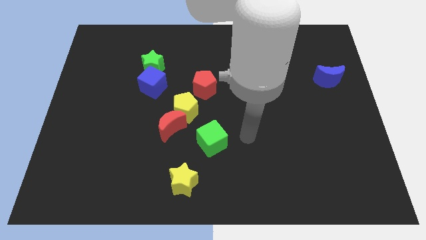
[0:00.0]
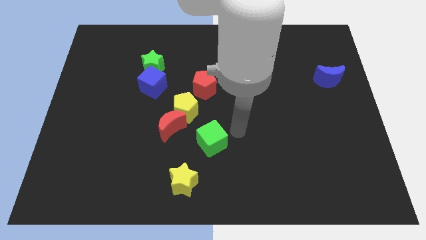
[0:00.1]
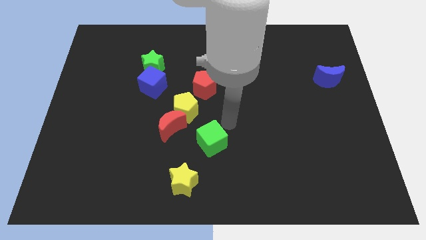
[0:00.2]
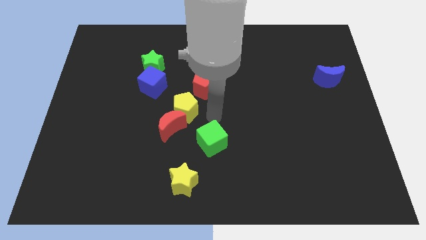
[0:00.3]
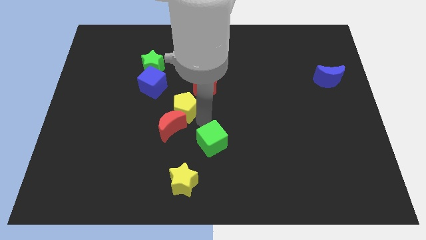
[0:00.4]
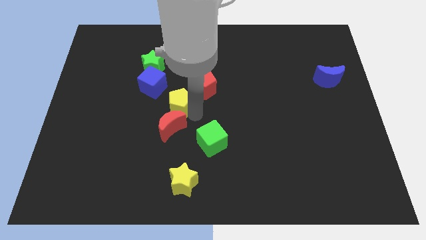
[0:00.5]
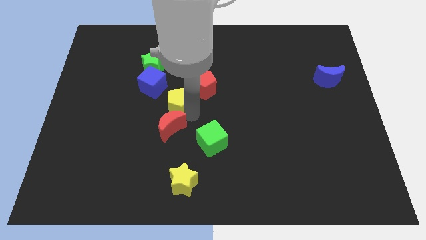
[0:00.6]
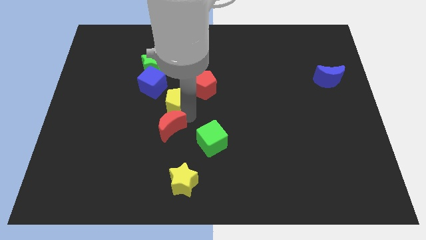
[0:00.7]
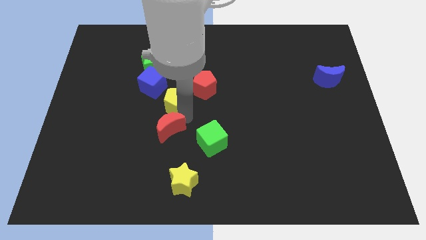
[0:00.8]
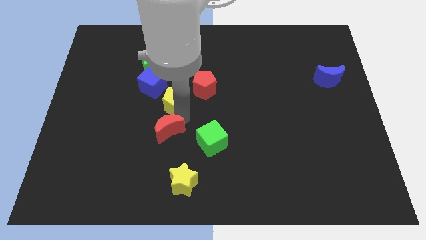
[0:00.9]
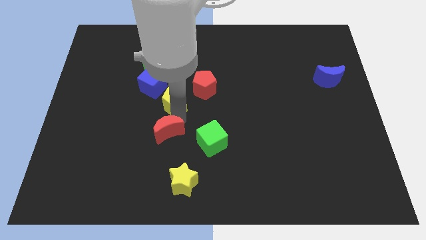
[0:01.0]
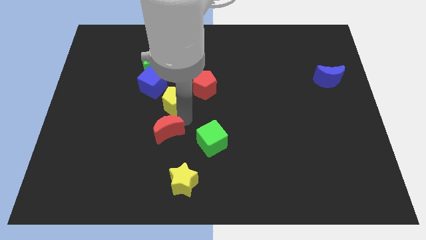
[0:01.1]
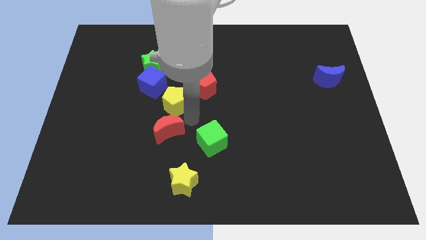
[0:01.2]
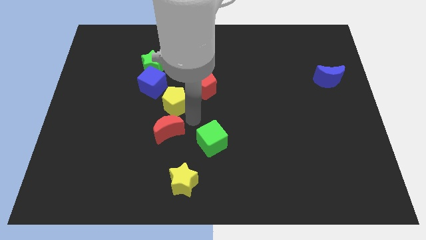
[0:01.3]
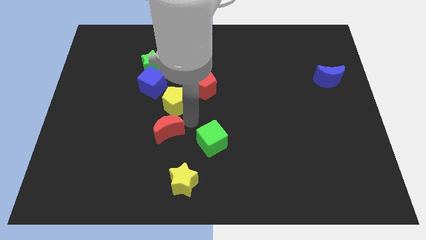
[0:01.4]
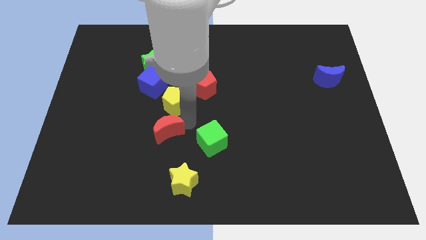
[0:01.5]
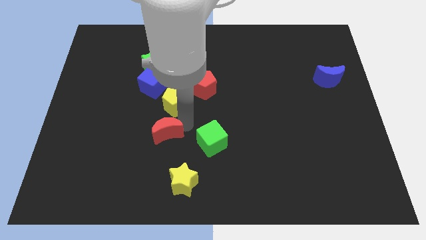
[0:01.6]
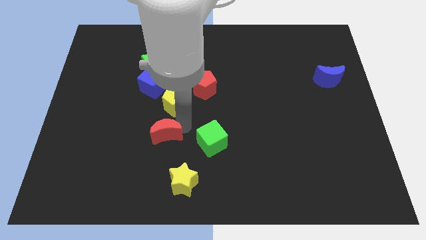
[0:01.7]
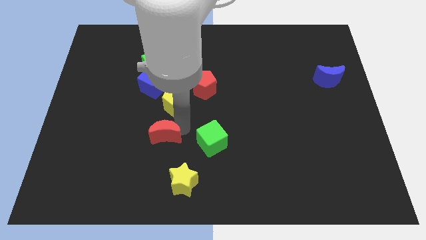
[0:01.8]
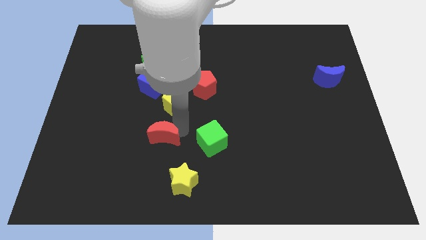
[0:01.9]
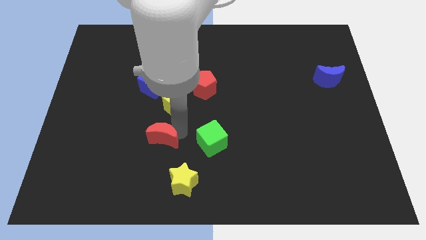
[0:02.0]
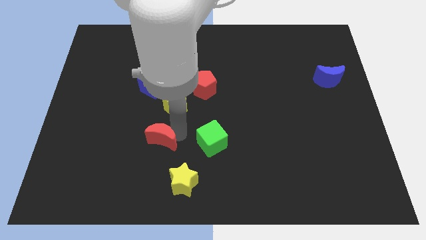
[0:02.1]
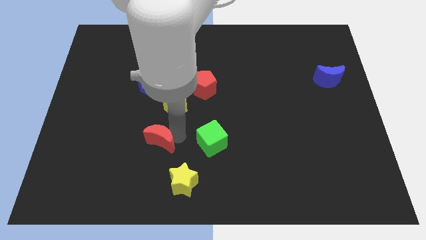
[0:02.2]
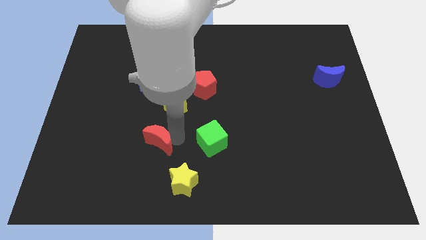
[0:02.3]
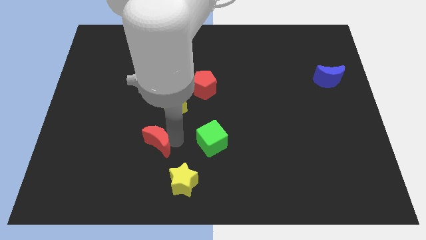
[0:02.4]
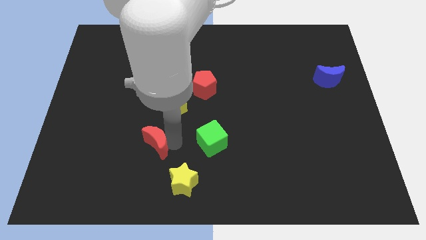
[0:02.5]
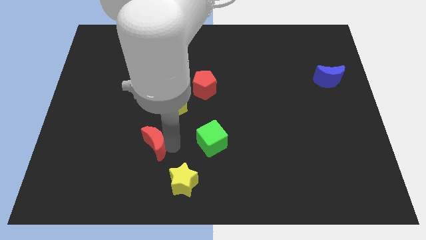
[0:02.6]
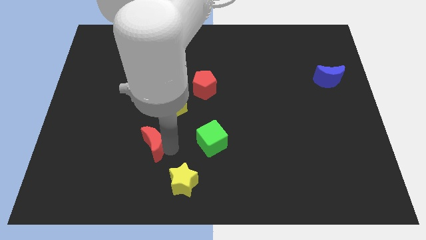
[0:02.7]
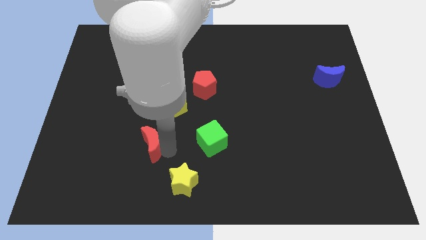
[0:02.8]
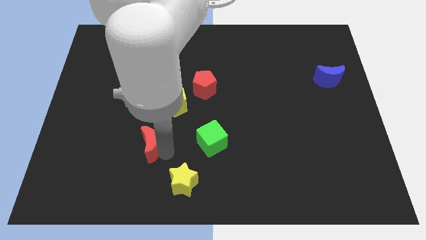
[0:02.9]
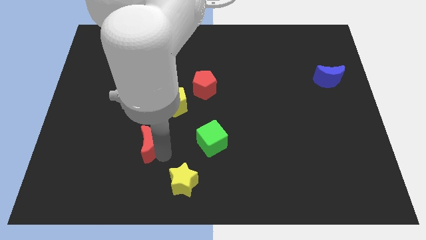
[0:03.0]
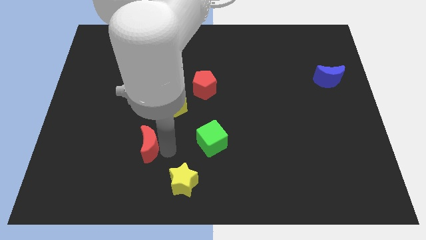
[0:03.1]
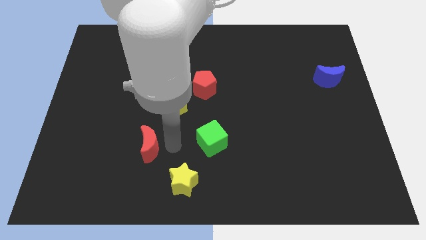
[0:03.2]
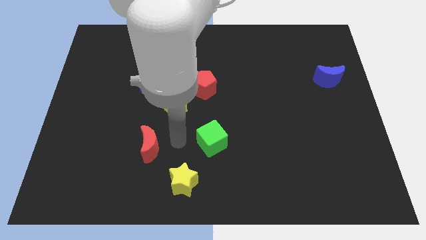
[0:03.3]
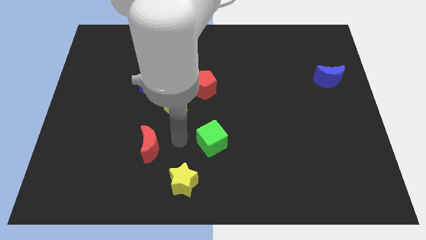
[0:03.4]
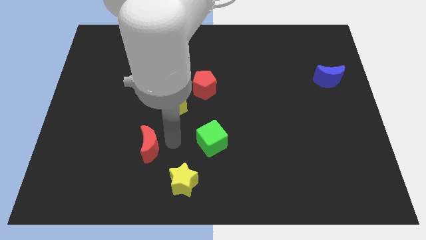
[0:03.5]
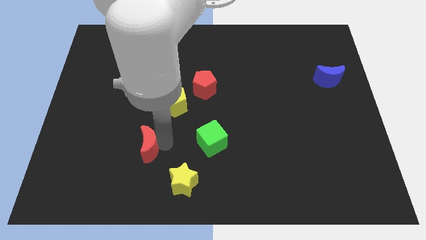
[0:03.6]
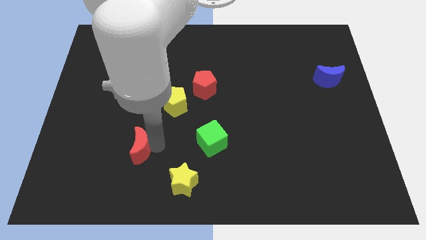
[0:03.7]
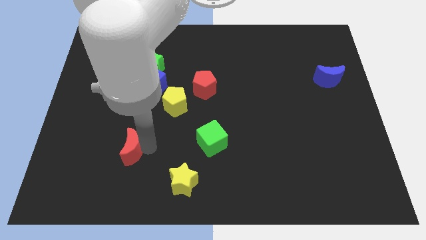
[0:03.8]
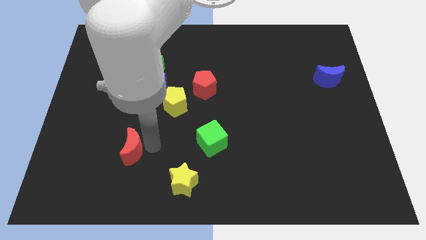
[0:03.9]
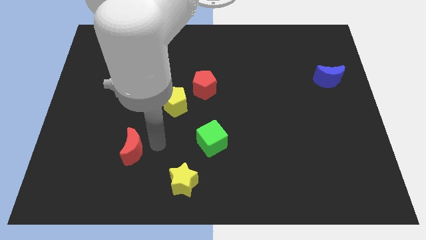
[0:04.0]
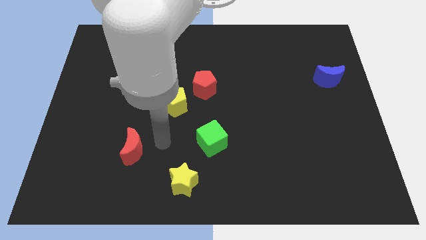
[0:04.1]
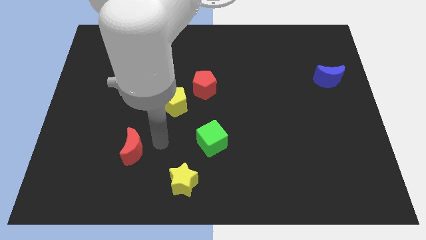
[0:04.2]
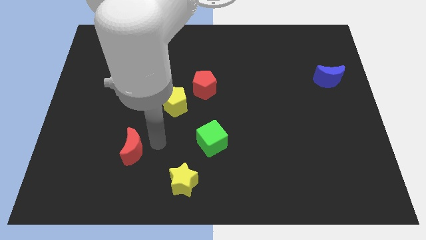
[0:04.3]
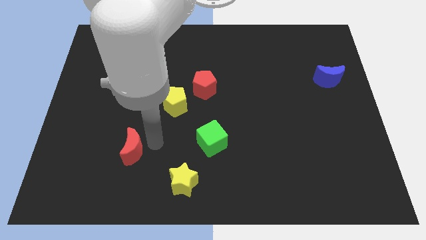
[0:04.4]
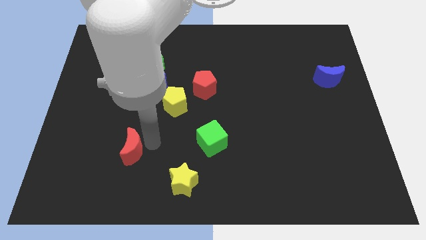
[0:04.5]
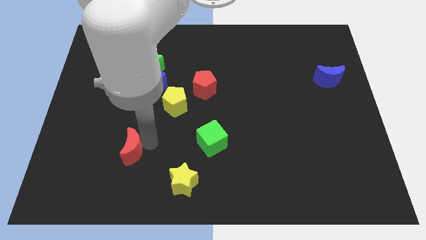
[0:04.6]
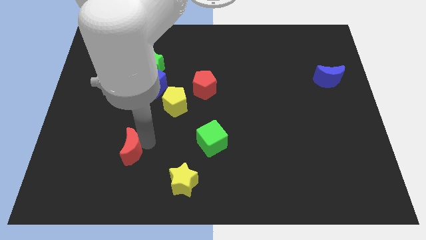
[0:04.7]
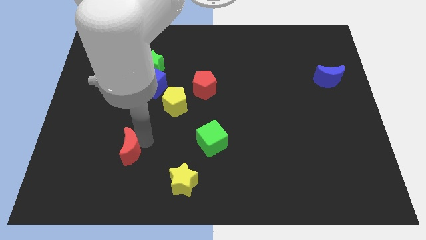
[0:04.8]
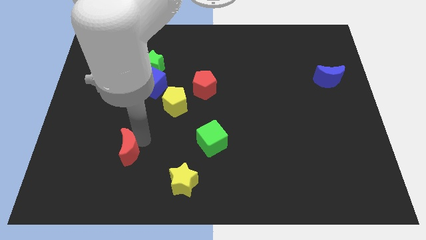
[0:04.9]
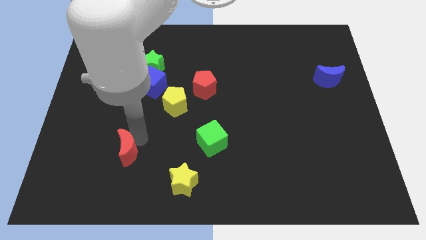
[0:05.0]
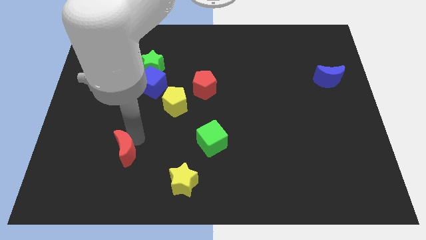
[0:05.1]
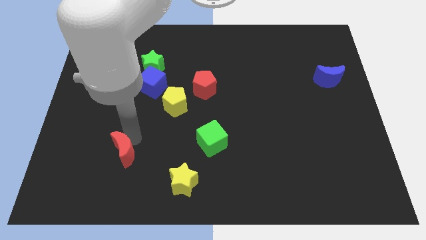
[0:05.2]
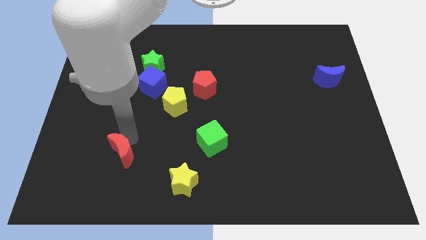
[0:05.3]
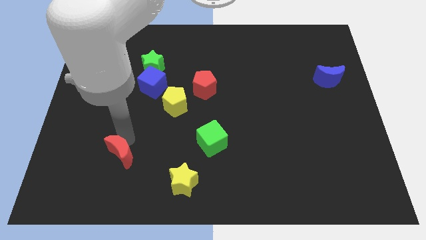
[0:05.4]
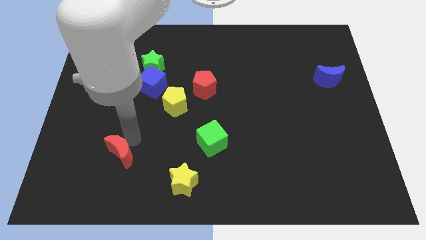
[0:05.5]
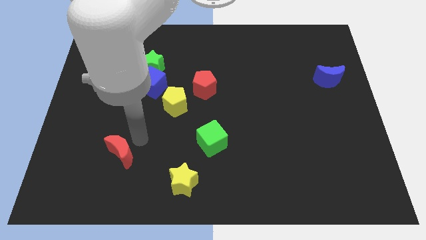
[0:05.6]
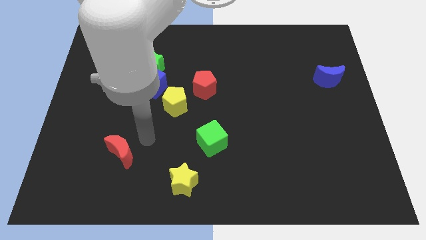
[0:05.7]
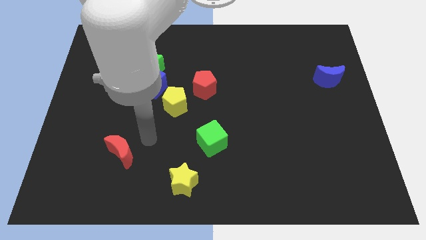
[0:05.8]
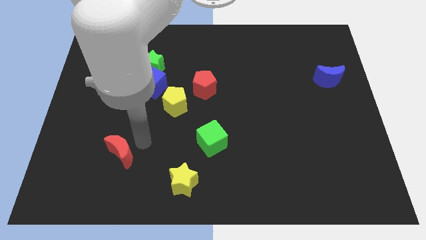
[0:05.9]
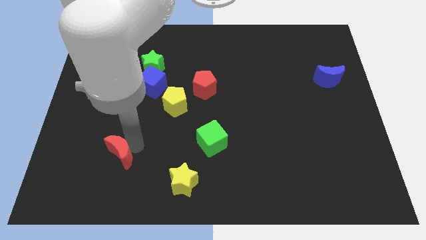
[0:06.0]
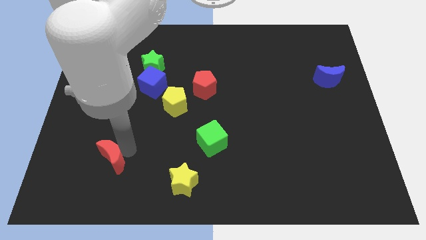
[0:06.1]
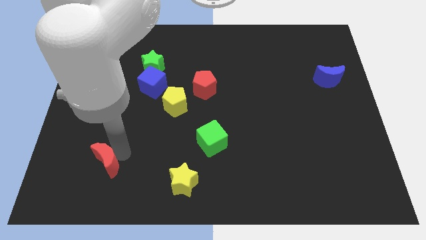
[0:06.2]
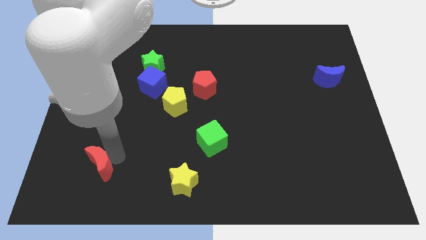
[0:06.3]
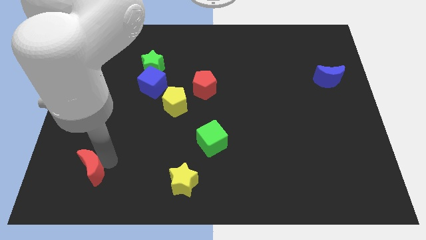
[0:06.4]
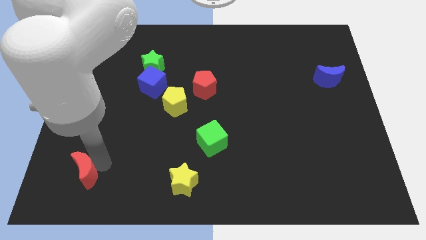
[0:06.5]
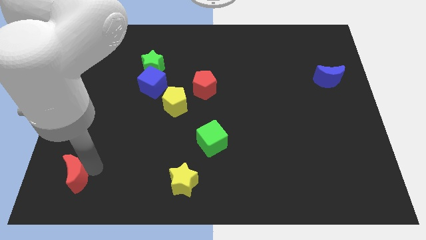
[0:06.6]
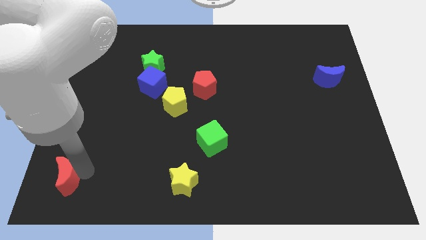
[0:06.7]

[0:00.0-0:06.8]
move the red moon to the lower left corner

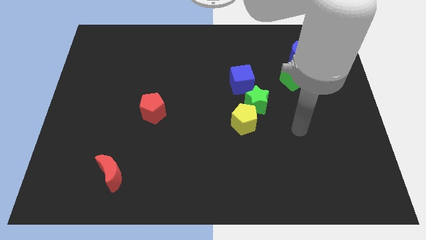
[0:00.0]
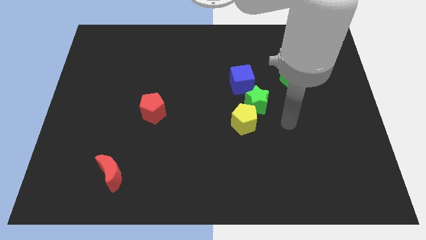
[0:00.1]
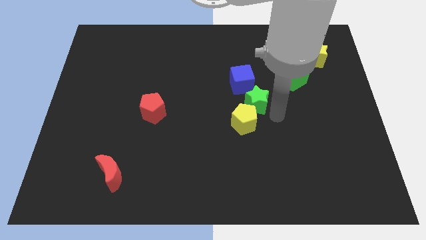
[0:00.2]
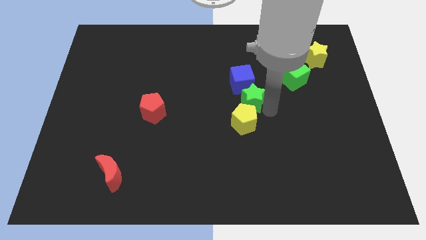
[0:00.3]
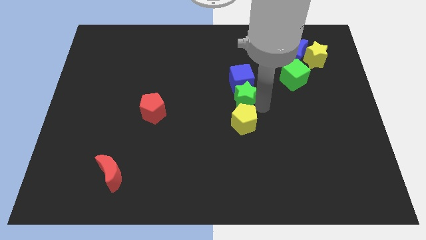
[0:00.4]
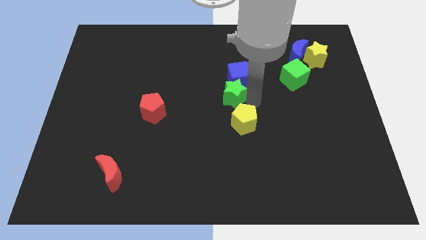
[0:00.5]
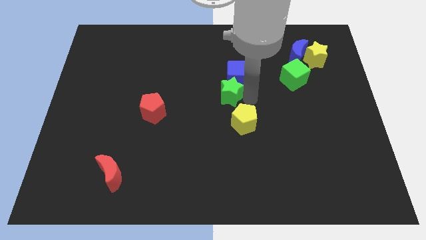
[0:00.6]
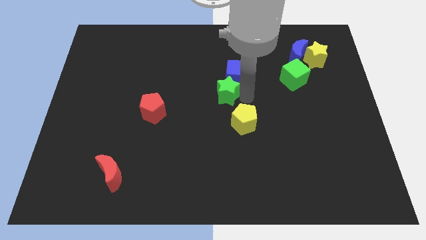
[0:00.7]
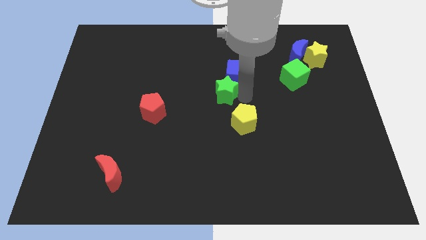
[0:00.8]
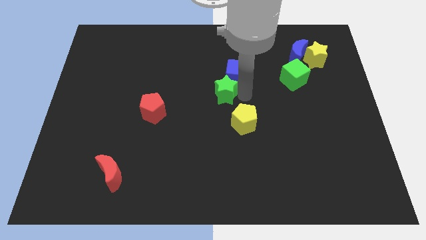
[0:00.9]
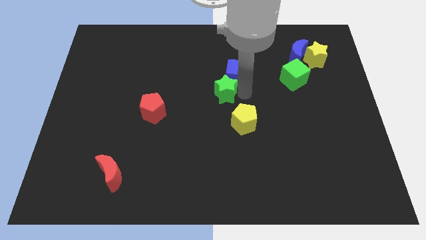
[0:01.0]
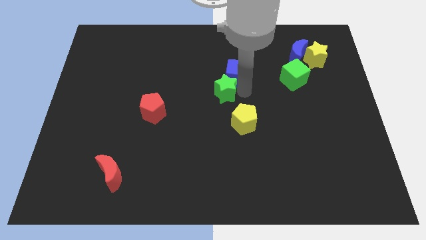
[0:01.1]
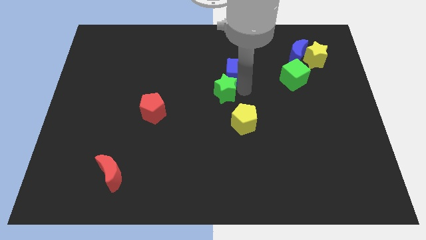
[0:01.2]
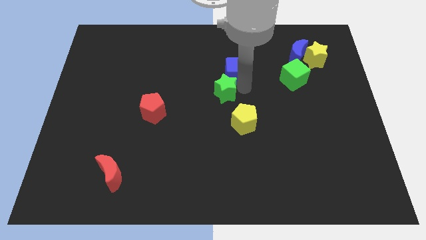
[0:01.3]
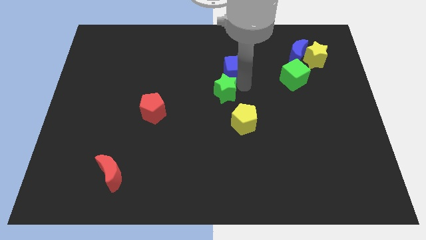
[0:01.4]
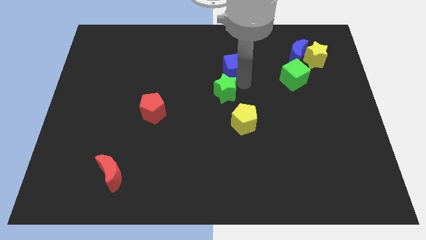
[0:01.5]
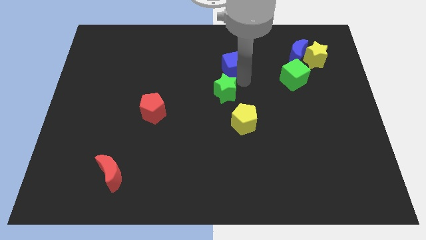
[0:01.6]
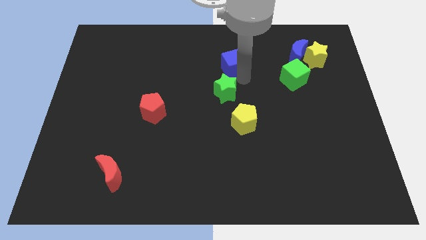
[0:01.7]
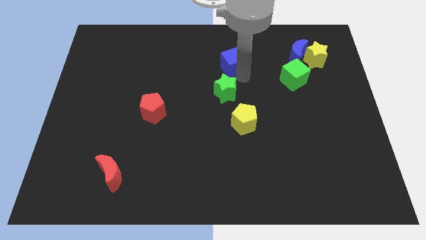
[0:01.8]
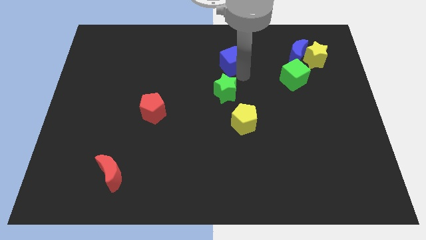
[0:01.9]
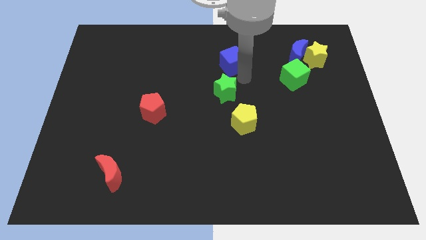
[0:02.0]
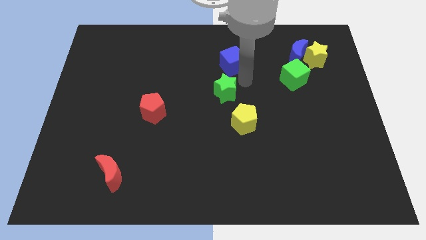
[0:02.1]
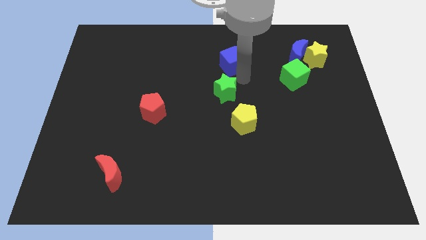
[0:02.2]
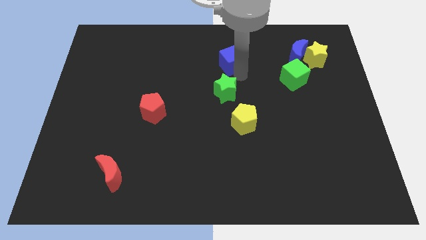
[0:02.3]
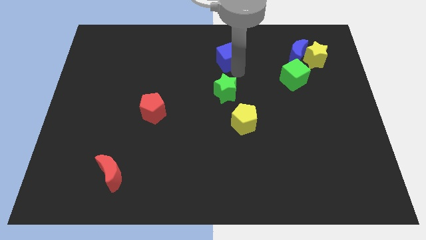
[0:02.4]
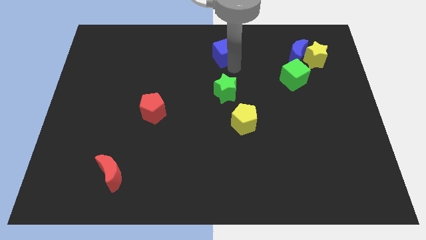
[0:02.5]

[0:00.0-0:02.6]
slide the blue cube to the towards your base
